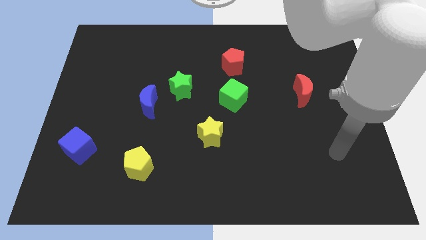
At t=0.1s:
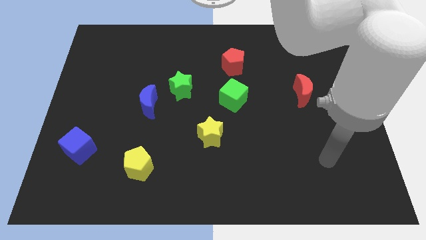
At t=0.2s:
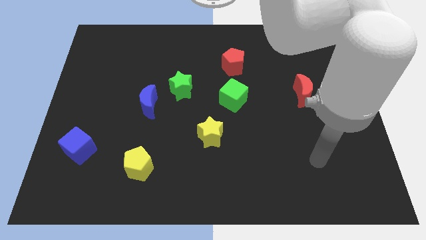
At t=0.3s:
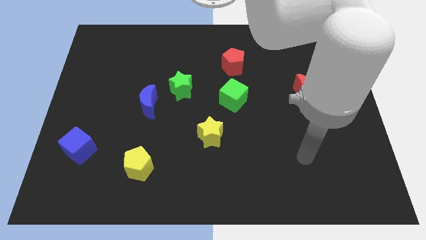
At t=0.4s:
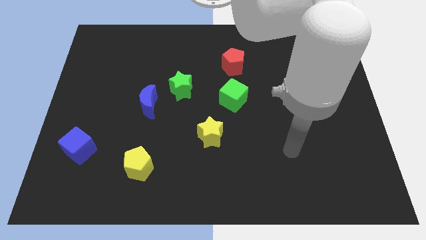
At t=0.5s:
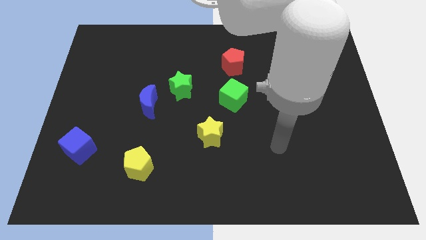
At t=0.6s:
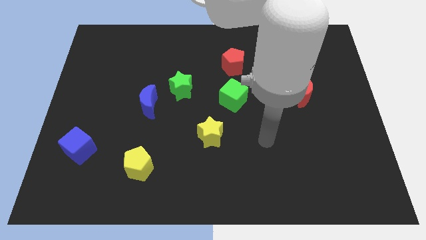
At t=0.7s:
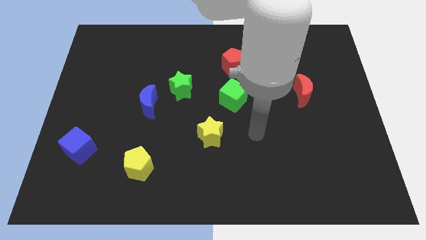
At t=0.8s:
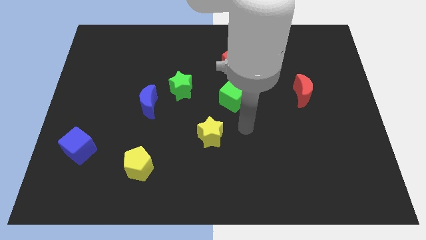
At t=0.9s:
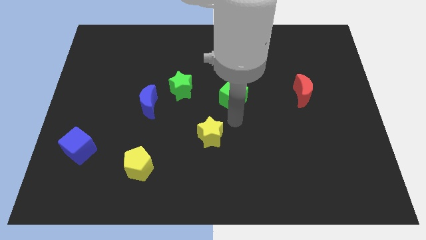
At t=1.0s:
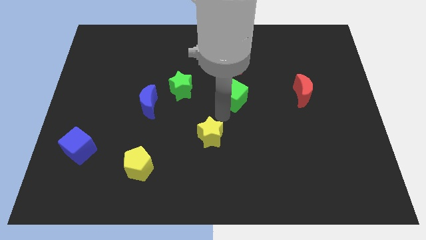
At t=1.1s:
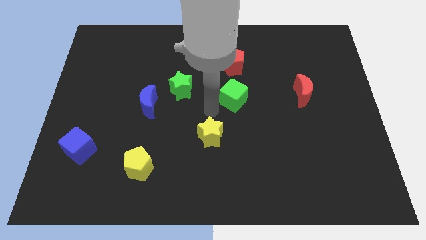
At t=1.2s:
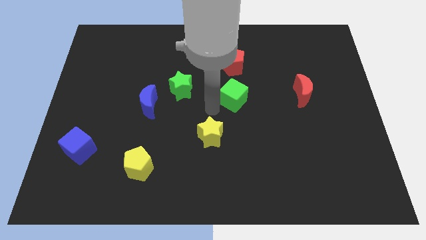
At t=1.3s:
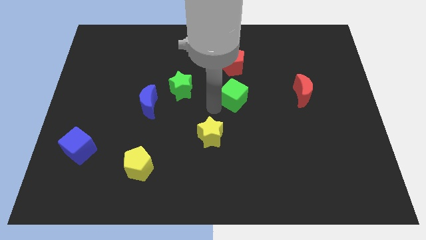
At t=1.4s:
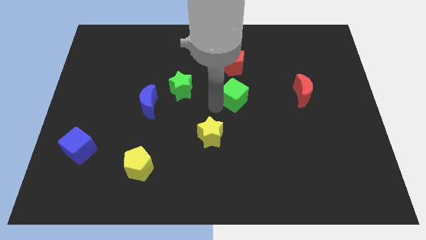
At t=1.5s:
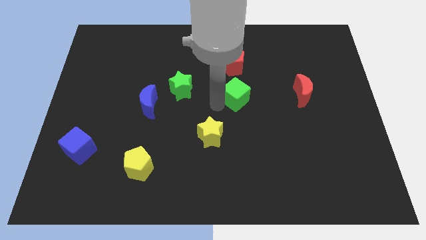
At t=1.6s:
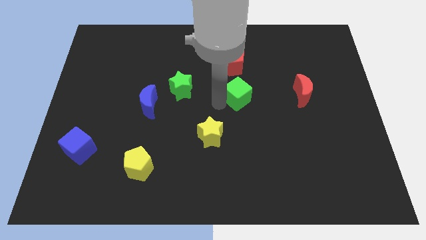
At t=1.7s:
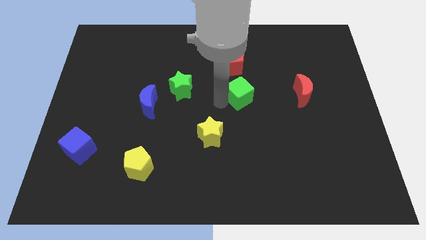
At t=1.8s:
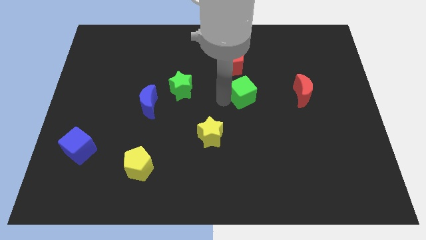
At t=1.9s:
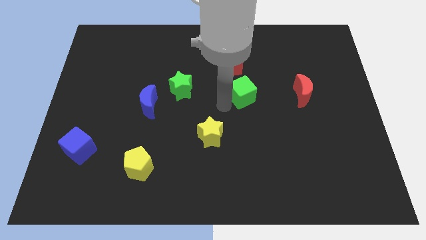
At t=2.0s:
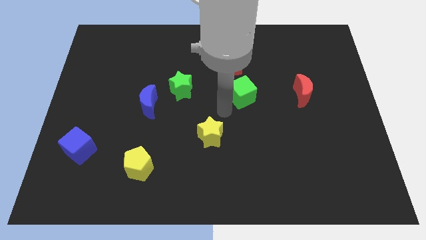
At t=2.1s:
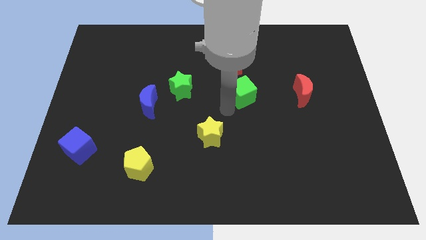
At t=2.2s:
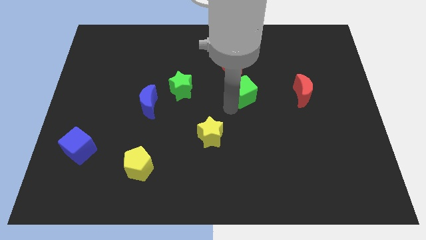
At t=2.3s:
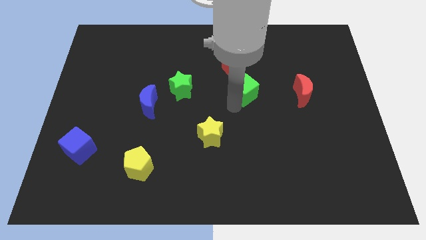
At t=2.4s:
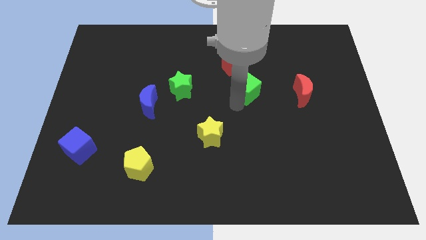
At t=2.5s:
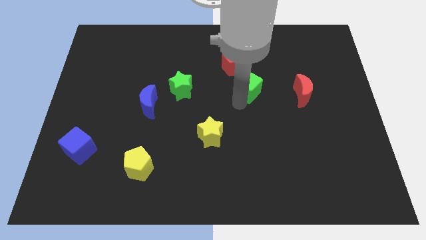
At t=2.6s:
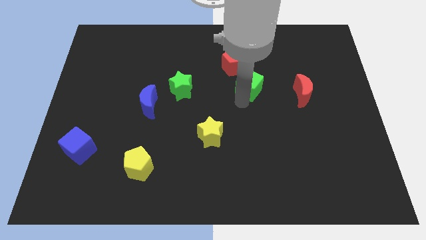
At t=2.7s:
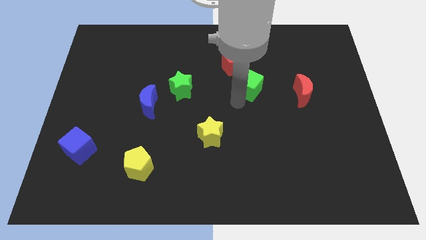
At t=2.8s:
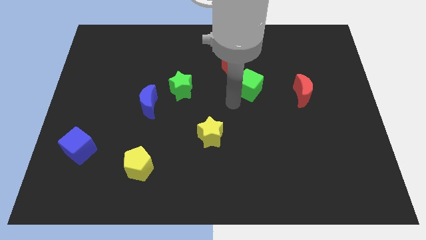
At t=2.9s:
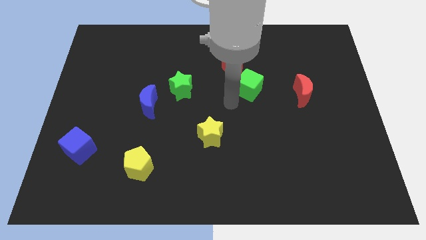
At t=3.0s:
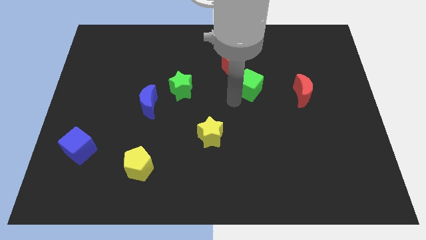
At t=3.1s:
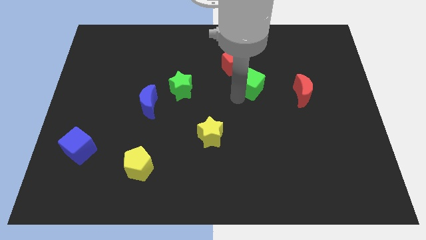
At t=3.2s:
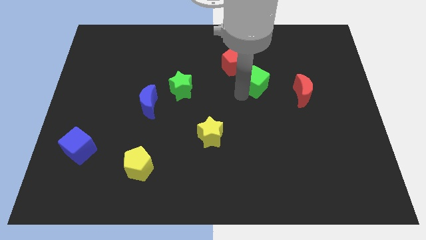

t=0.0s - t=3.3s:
move the green cube diagonally up and to the right a little

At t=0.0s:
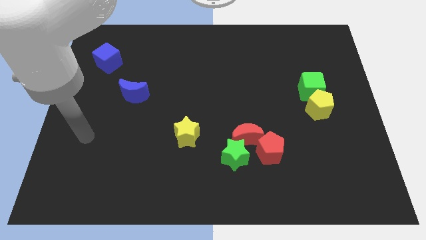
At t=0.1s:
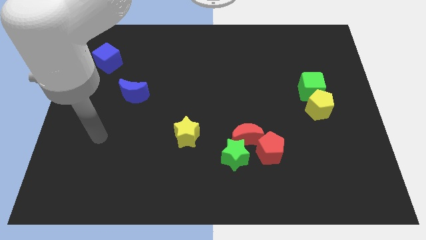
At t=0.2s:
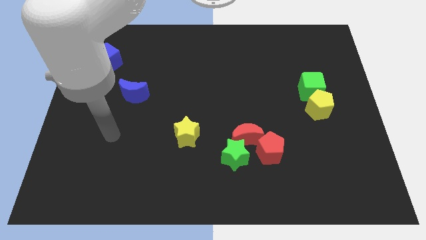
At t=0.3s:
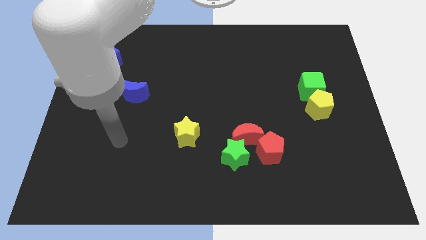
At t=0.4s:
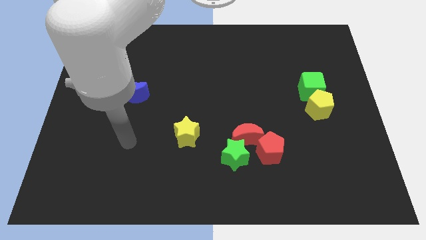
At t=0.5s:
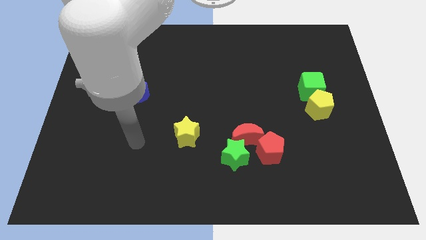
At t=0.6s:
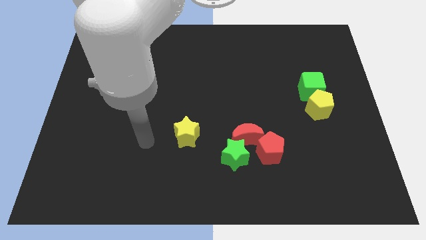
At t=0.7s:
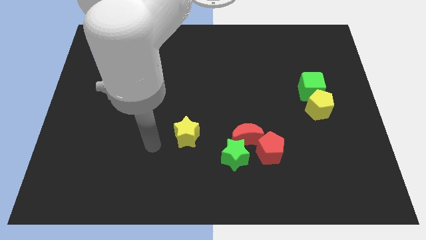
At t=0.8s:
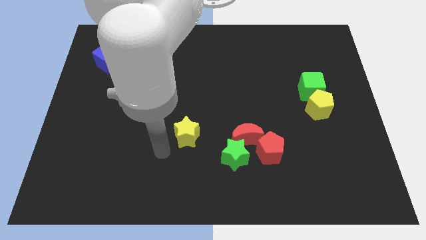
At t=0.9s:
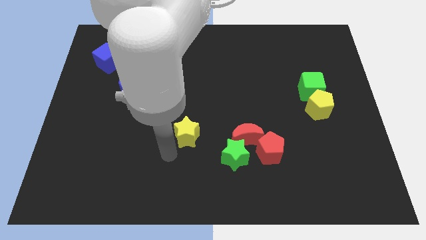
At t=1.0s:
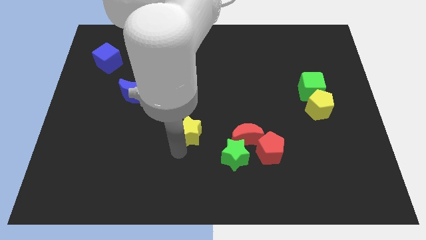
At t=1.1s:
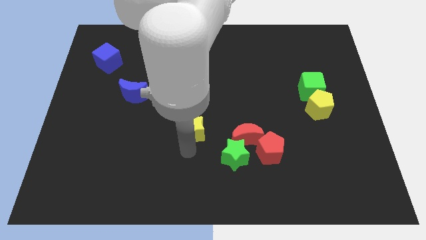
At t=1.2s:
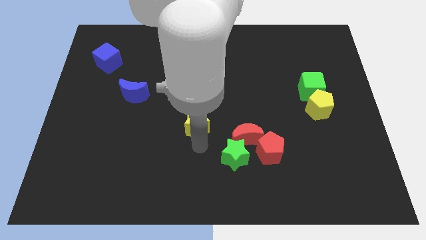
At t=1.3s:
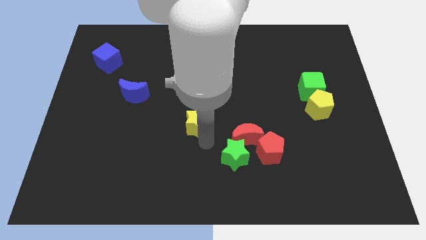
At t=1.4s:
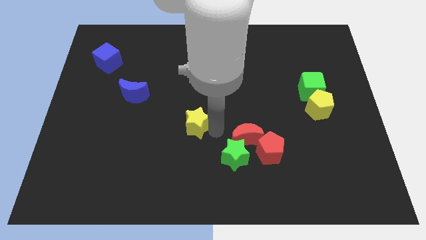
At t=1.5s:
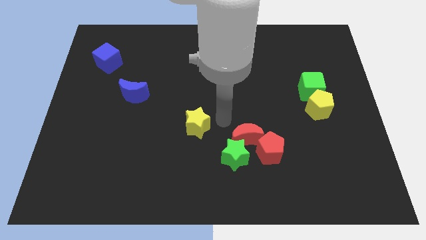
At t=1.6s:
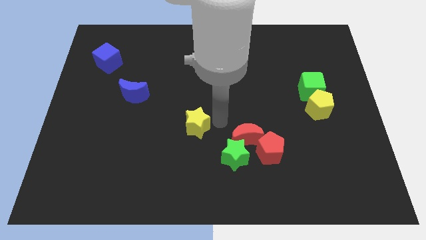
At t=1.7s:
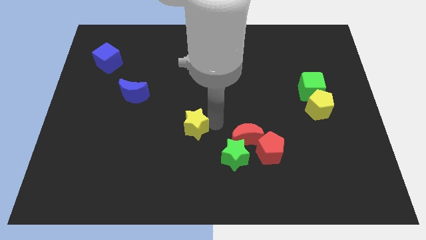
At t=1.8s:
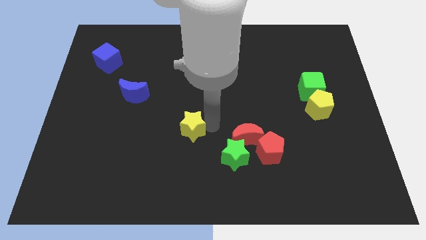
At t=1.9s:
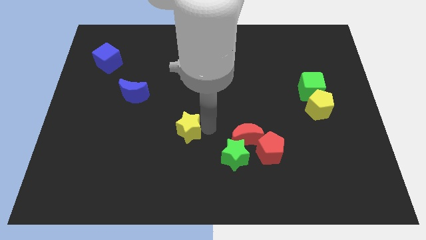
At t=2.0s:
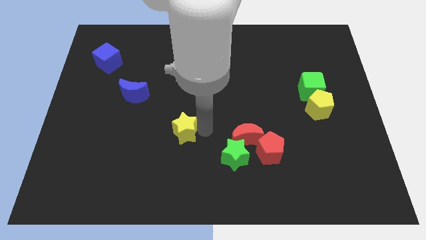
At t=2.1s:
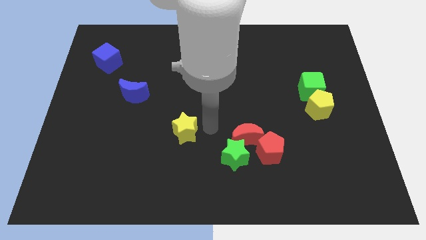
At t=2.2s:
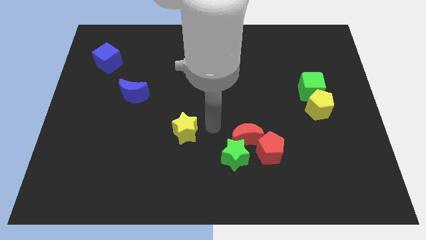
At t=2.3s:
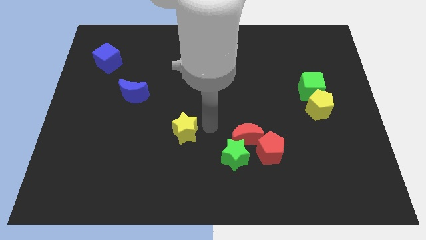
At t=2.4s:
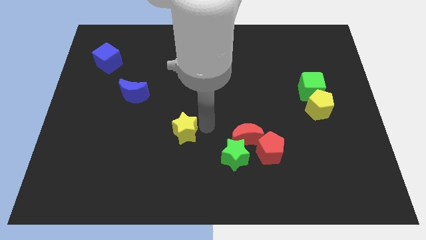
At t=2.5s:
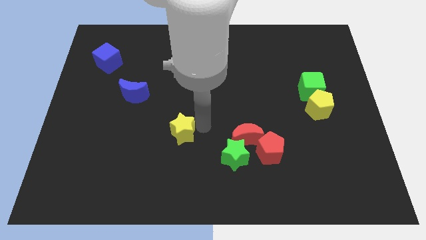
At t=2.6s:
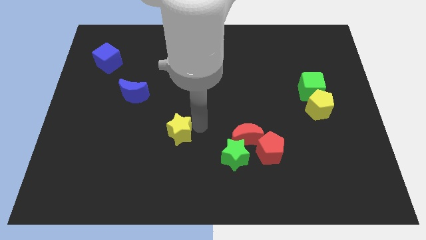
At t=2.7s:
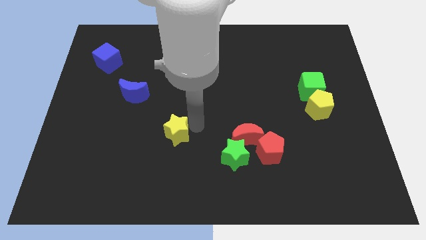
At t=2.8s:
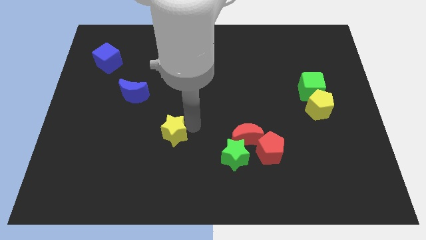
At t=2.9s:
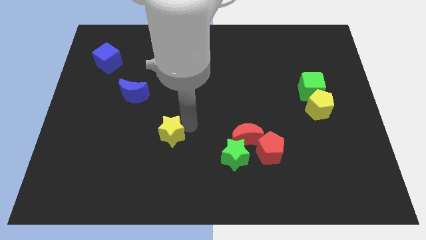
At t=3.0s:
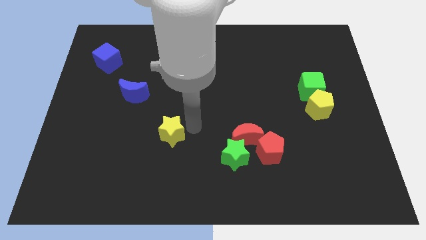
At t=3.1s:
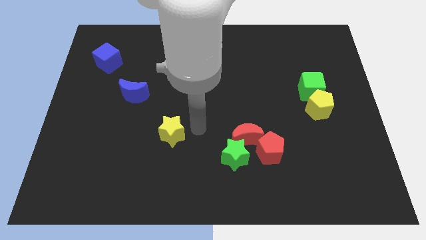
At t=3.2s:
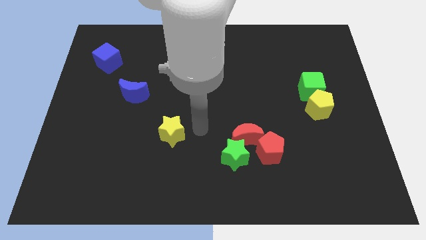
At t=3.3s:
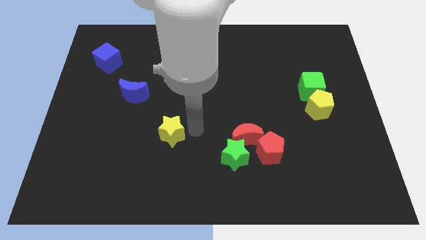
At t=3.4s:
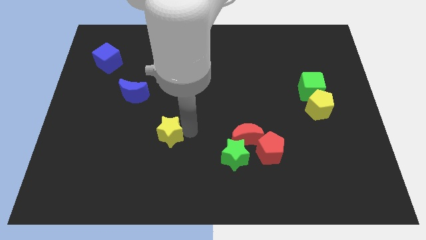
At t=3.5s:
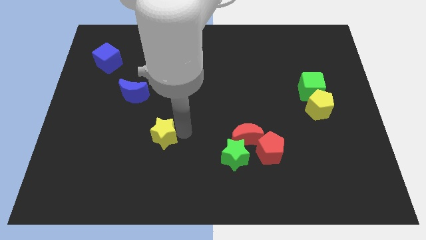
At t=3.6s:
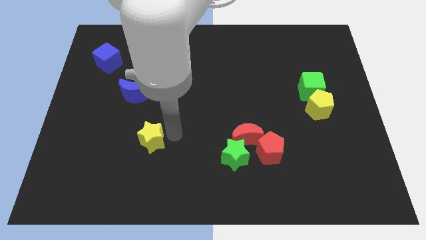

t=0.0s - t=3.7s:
slightly move the yellow star left

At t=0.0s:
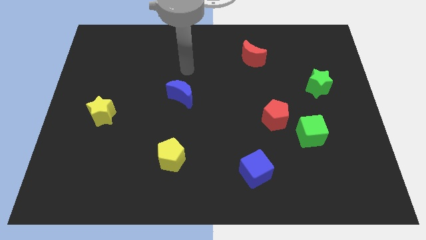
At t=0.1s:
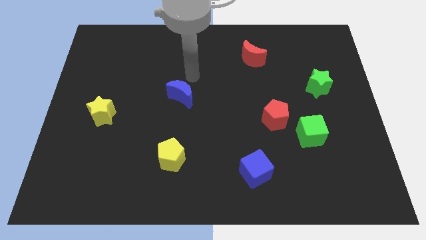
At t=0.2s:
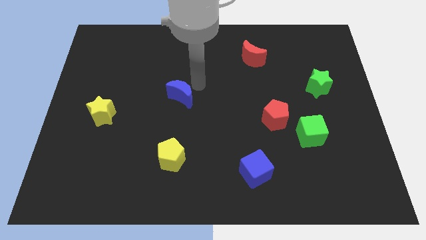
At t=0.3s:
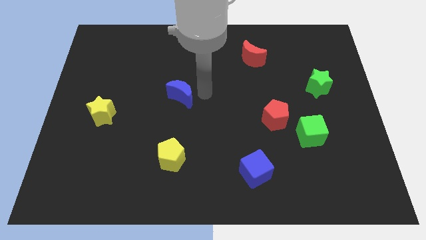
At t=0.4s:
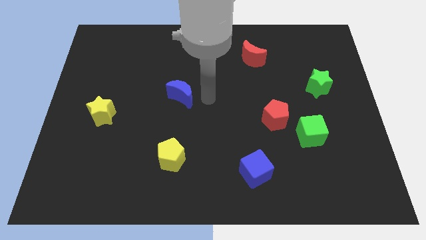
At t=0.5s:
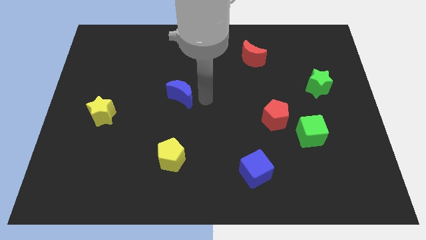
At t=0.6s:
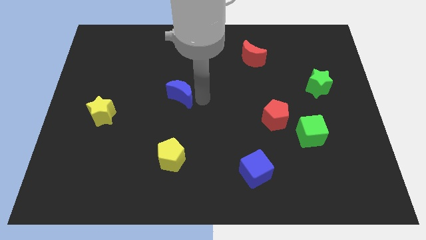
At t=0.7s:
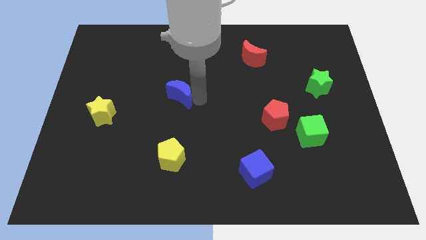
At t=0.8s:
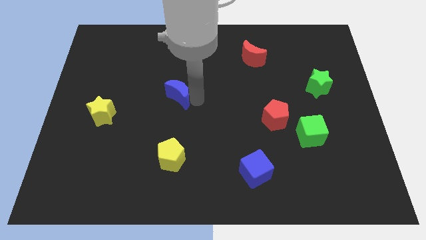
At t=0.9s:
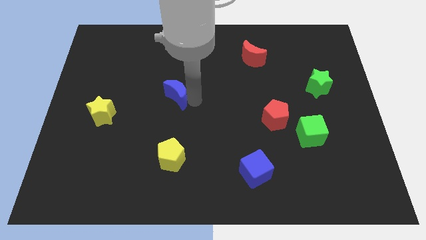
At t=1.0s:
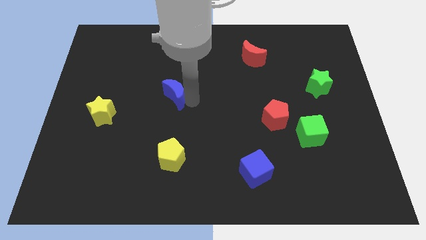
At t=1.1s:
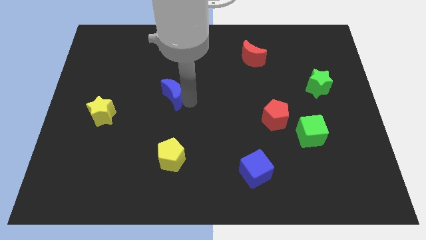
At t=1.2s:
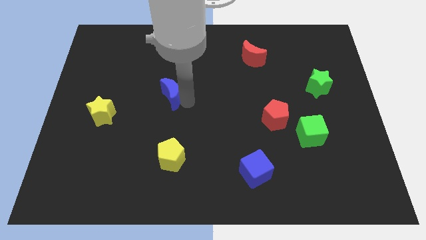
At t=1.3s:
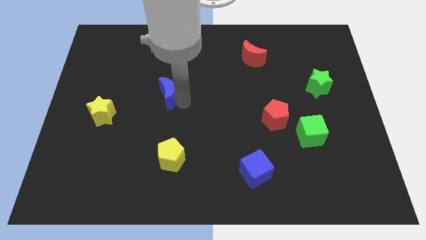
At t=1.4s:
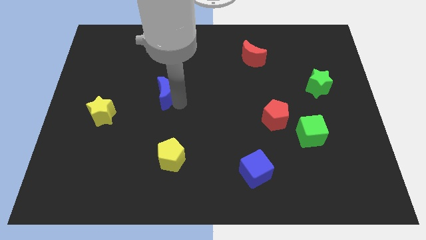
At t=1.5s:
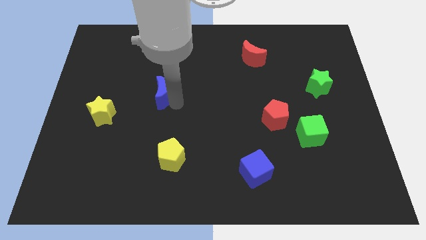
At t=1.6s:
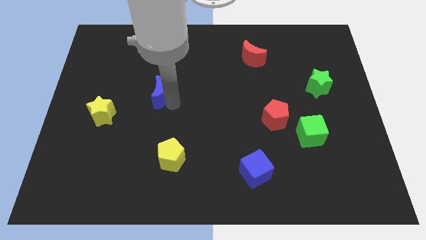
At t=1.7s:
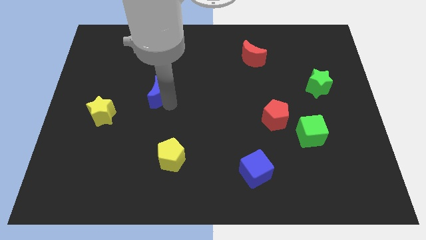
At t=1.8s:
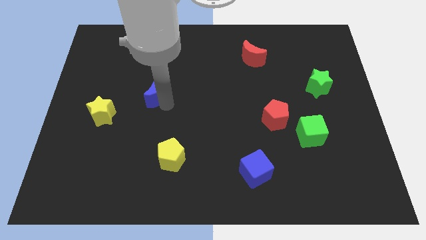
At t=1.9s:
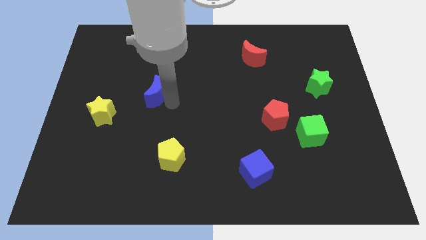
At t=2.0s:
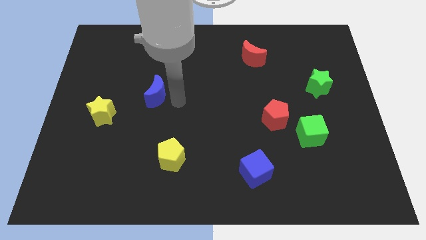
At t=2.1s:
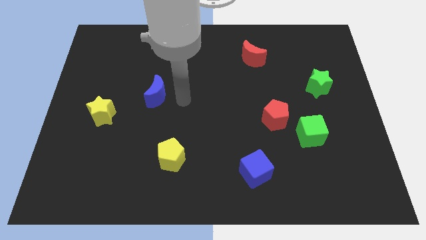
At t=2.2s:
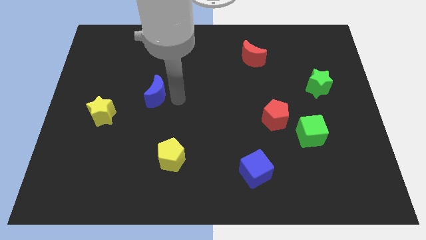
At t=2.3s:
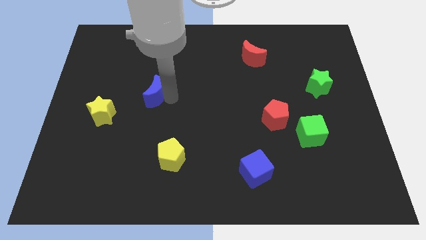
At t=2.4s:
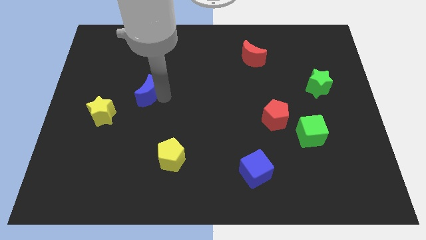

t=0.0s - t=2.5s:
push the blue moon to the left a little
